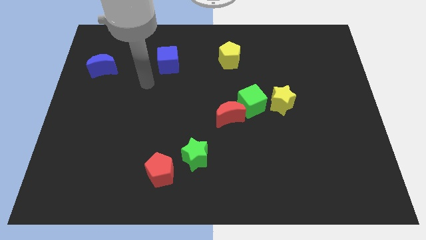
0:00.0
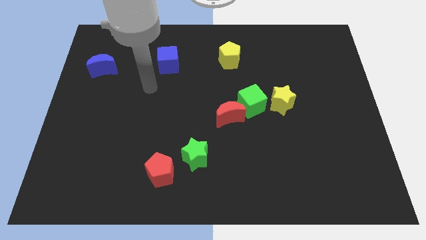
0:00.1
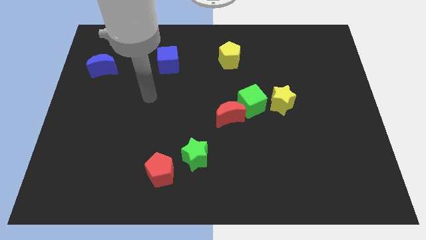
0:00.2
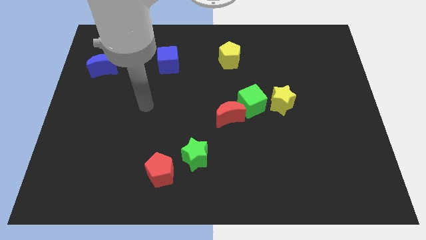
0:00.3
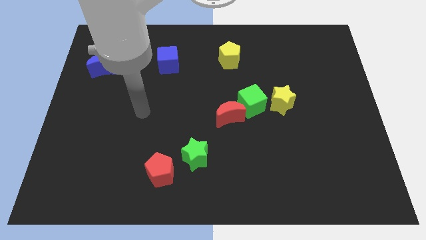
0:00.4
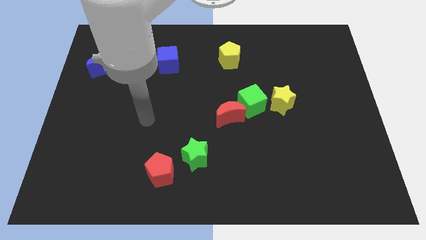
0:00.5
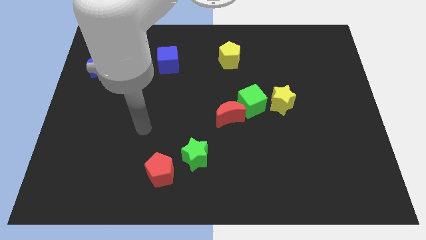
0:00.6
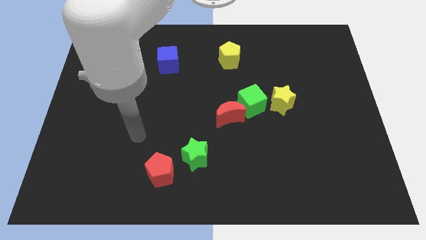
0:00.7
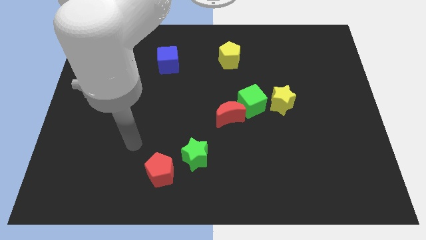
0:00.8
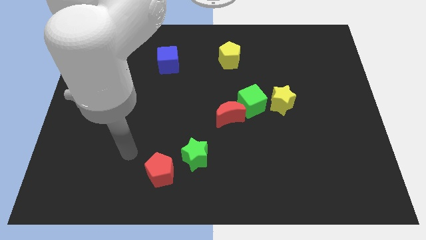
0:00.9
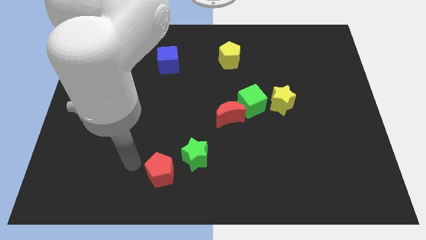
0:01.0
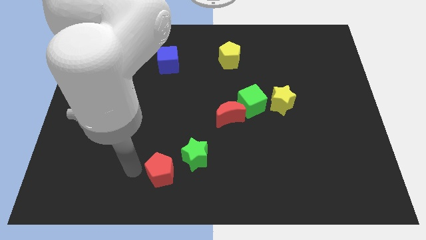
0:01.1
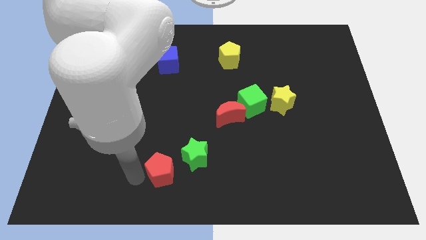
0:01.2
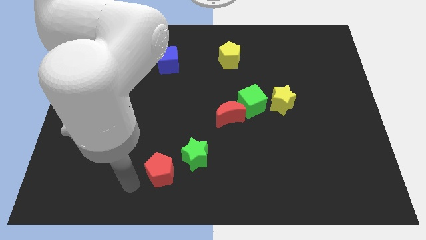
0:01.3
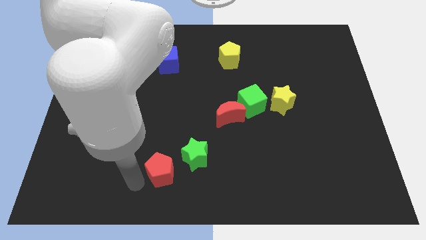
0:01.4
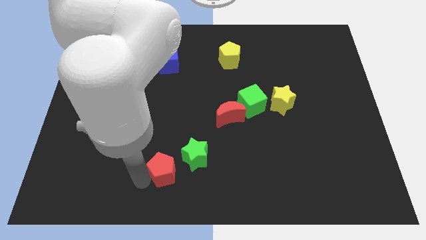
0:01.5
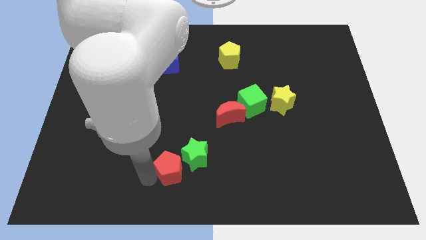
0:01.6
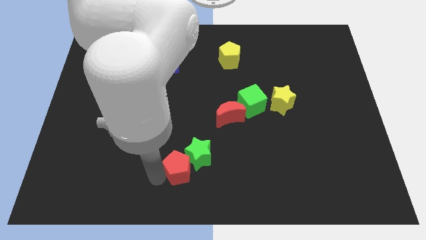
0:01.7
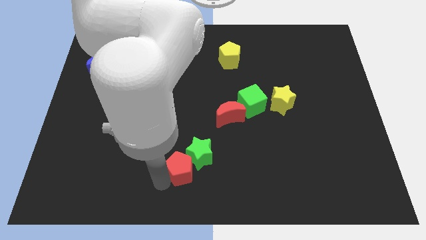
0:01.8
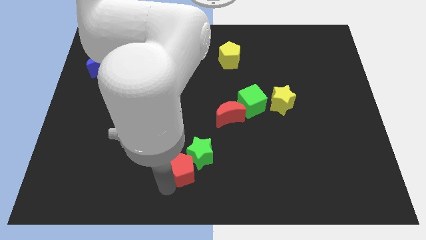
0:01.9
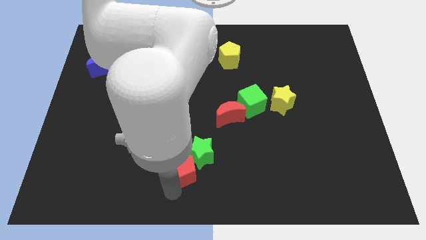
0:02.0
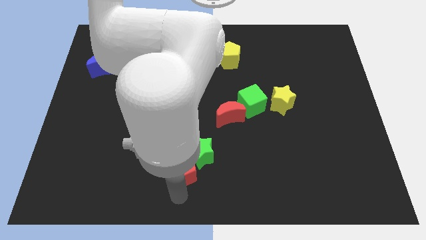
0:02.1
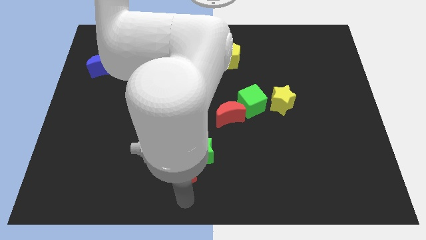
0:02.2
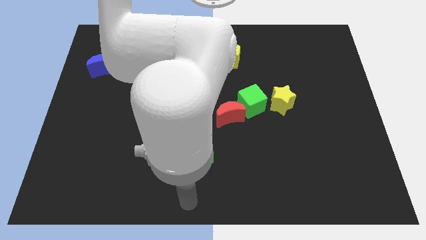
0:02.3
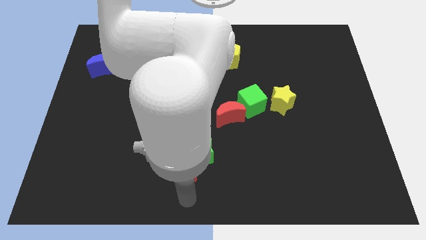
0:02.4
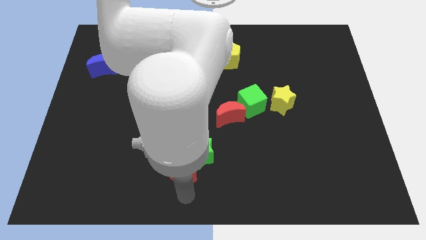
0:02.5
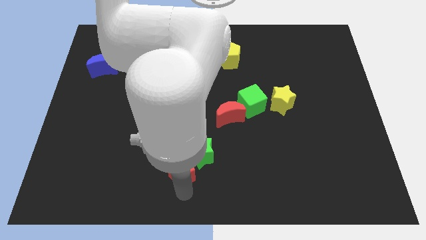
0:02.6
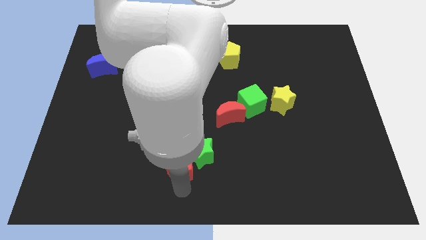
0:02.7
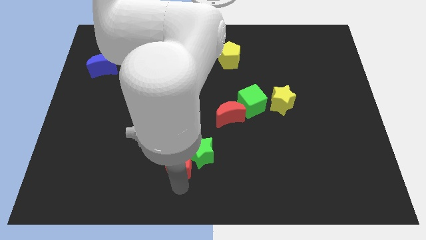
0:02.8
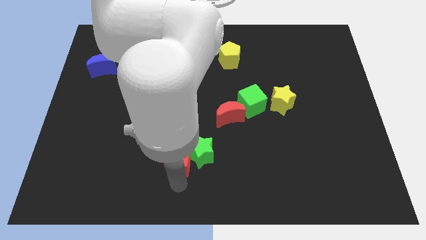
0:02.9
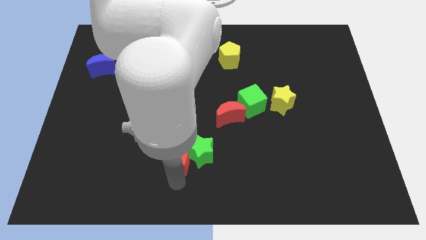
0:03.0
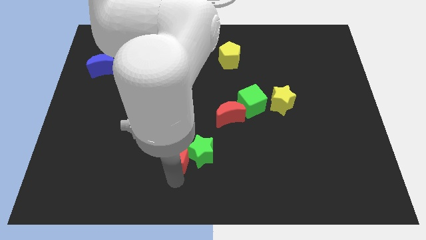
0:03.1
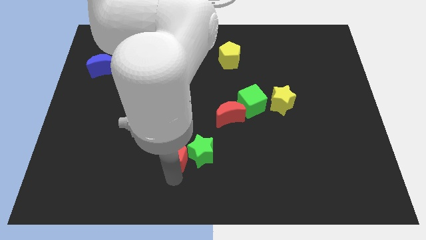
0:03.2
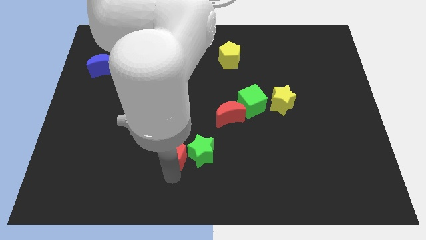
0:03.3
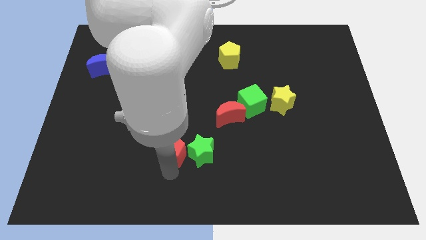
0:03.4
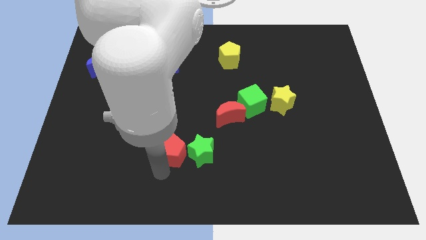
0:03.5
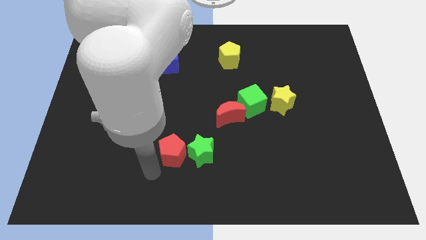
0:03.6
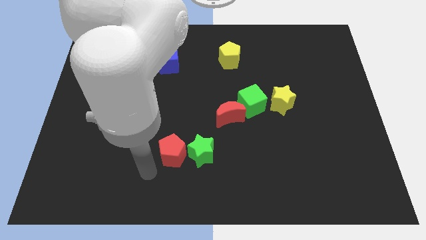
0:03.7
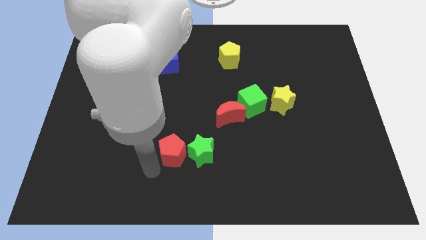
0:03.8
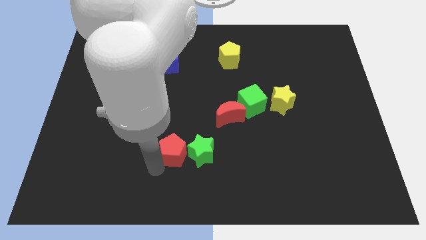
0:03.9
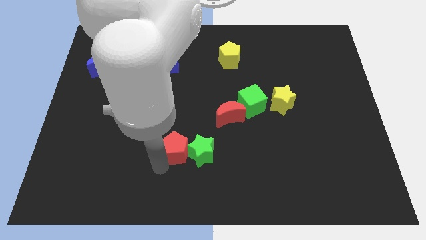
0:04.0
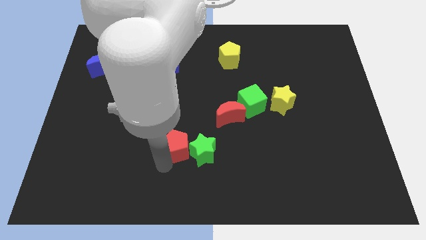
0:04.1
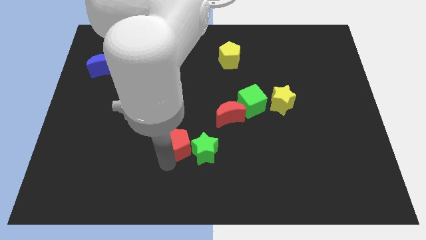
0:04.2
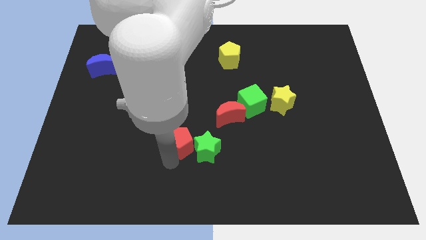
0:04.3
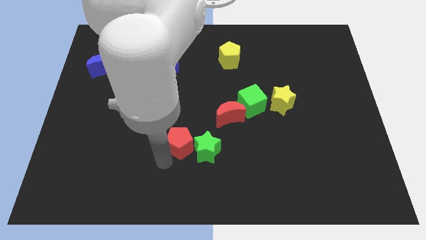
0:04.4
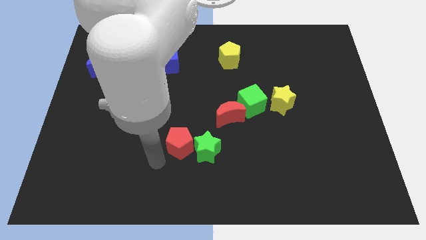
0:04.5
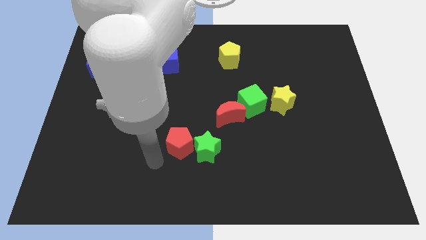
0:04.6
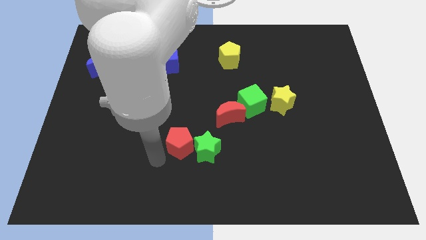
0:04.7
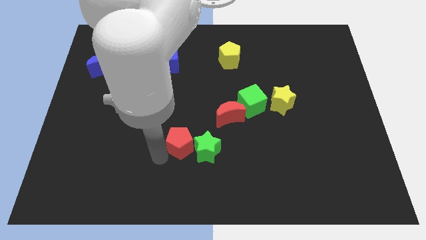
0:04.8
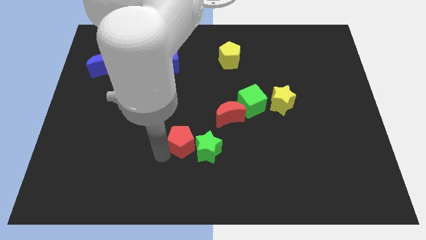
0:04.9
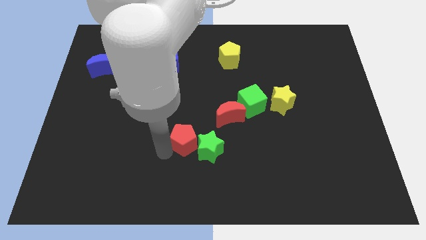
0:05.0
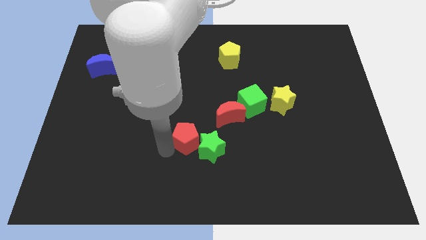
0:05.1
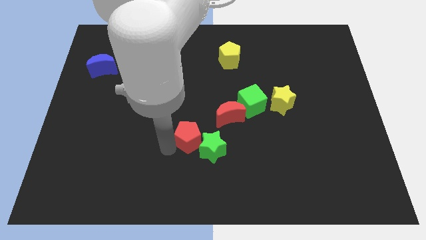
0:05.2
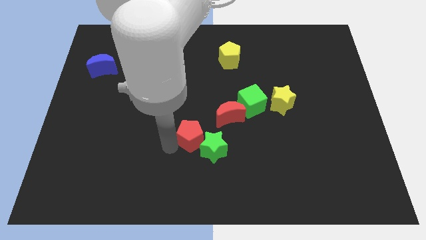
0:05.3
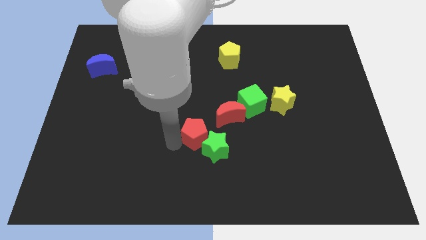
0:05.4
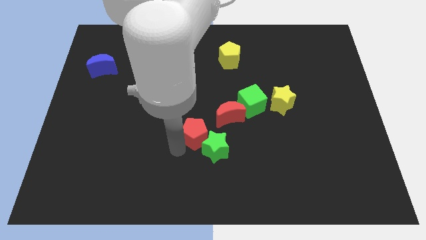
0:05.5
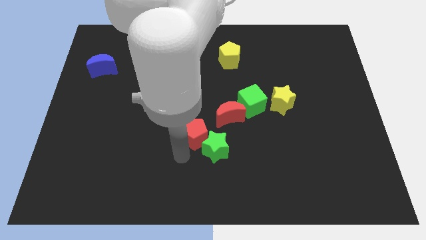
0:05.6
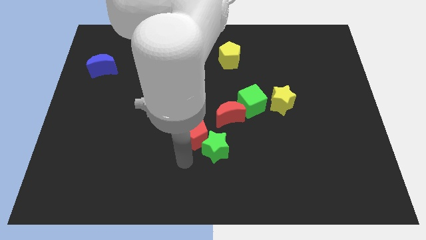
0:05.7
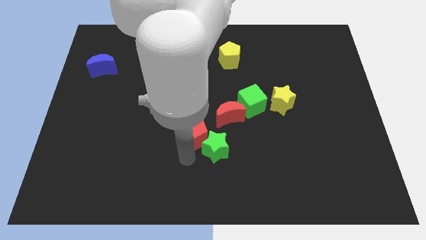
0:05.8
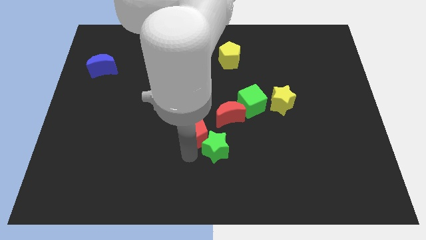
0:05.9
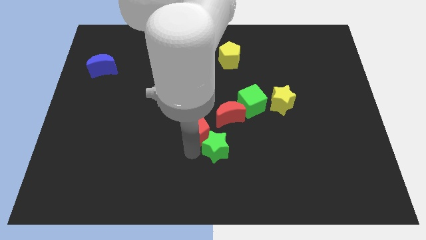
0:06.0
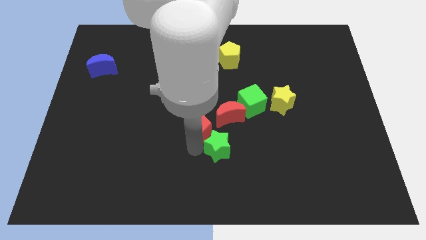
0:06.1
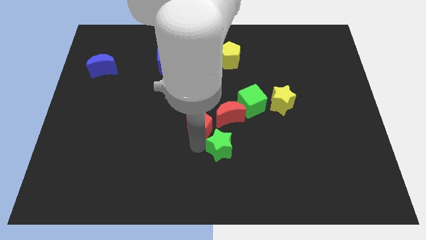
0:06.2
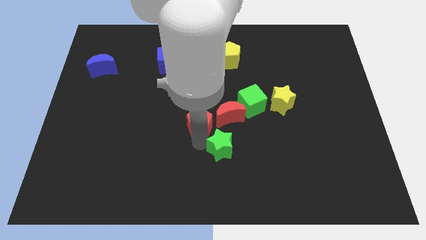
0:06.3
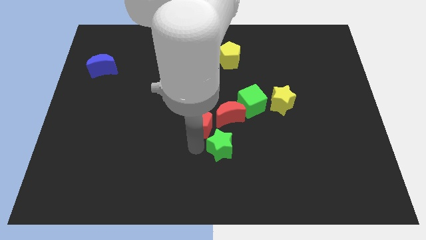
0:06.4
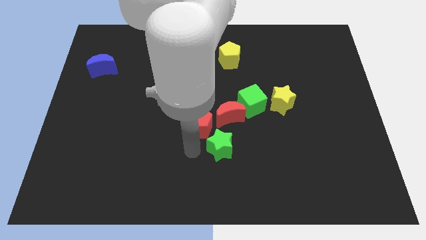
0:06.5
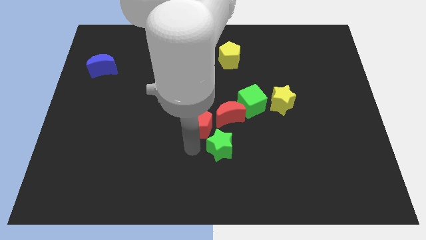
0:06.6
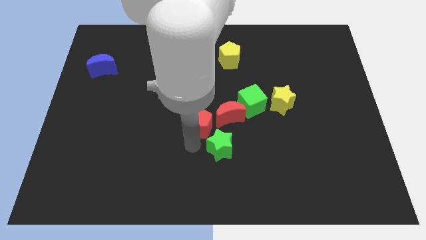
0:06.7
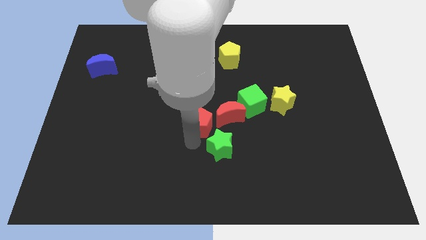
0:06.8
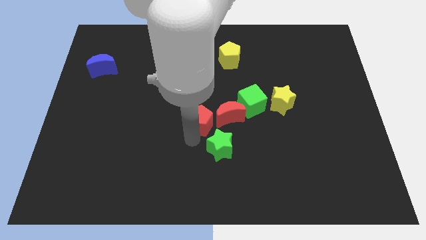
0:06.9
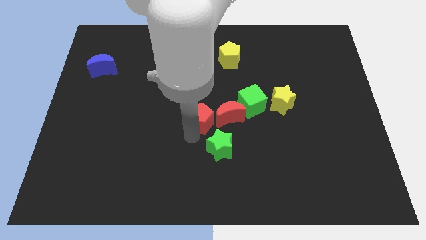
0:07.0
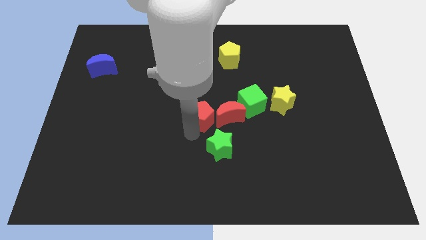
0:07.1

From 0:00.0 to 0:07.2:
put the red pentagon to the left of the green cube

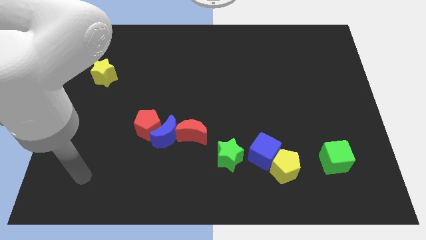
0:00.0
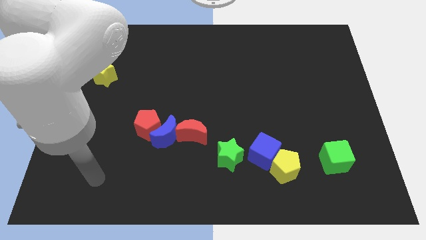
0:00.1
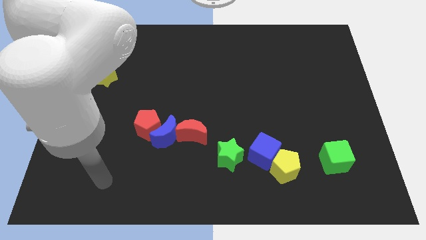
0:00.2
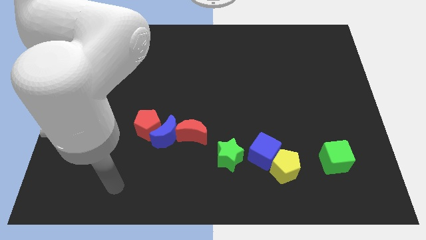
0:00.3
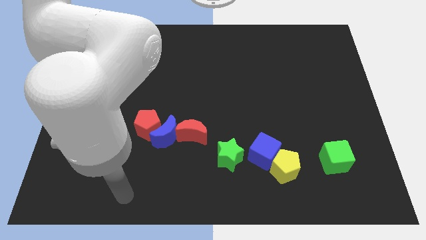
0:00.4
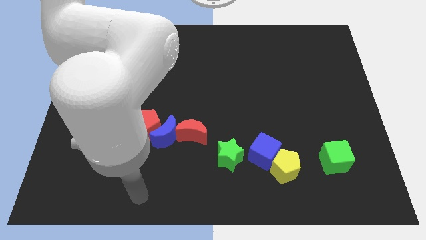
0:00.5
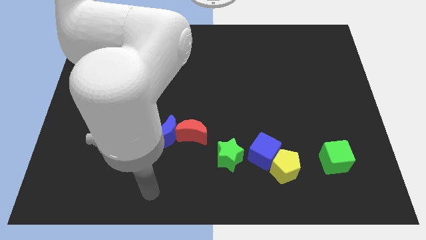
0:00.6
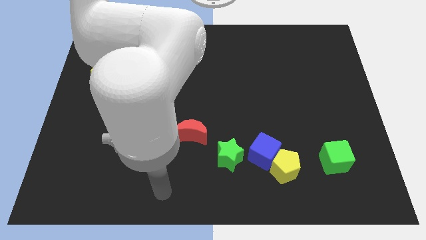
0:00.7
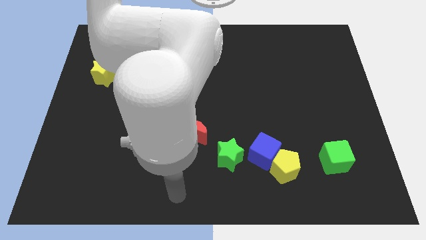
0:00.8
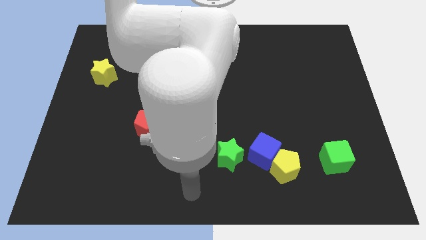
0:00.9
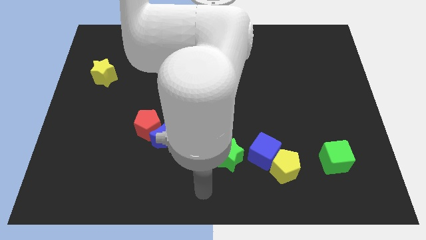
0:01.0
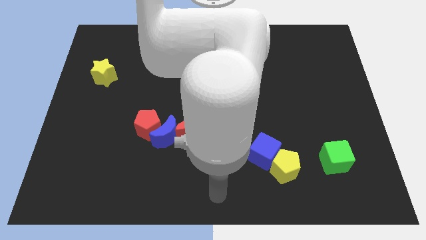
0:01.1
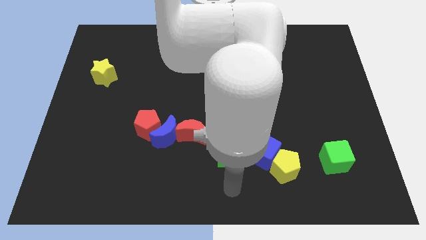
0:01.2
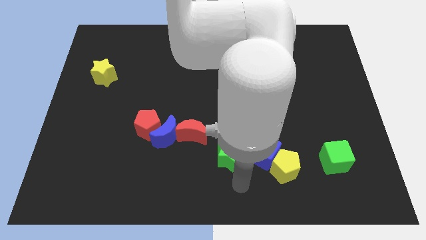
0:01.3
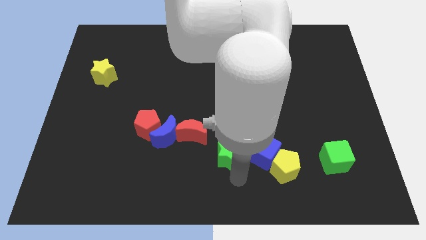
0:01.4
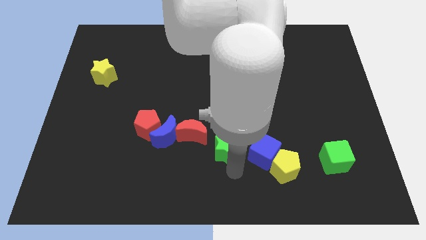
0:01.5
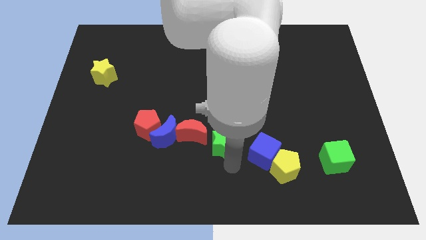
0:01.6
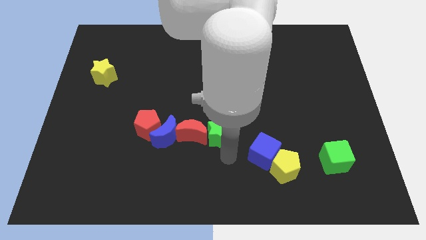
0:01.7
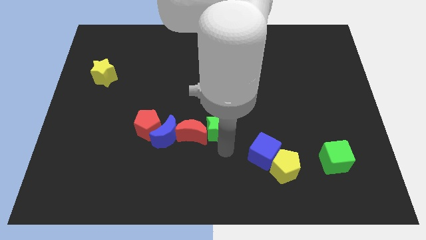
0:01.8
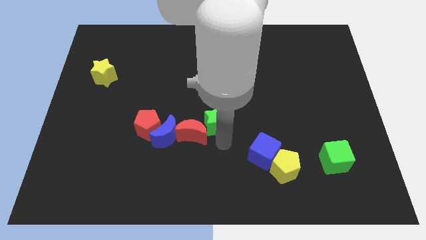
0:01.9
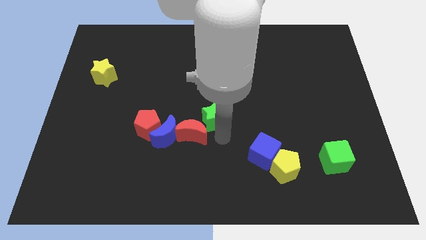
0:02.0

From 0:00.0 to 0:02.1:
put the green star above the red moon
